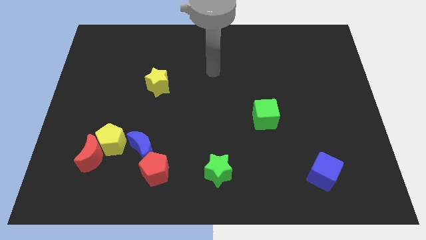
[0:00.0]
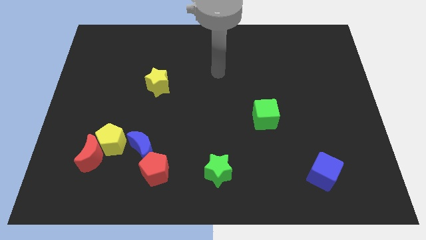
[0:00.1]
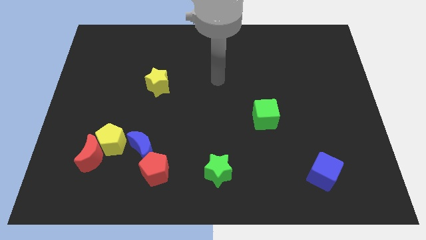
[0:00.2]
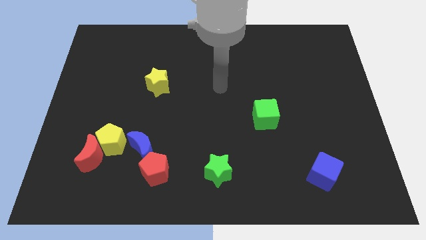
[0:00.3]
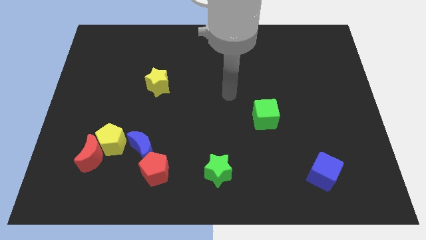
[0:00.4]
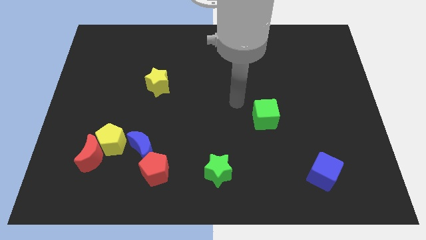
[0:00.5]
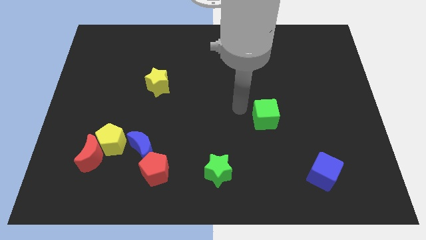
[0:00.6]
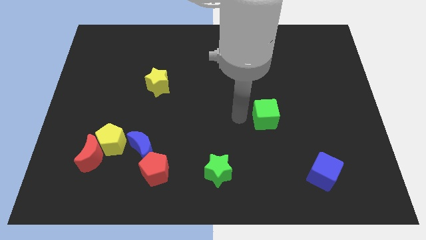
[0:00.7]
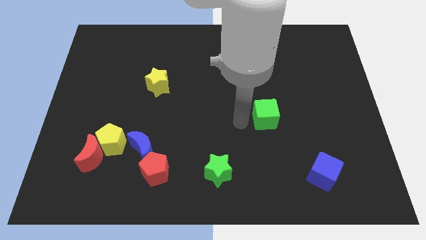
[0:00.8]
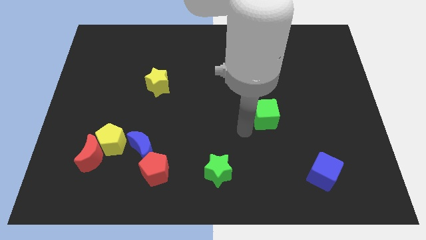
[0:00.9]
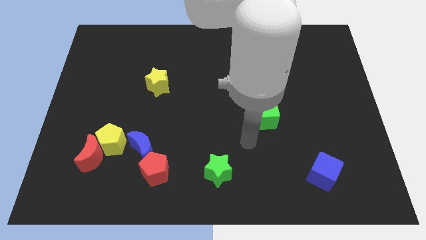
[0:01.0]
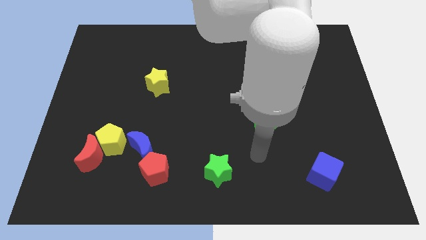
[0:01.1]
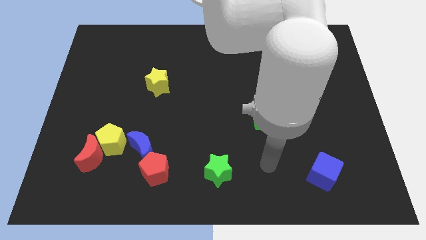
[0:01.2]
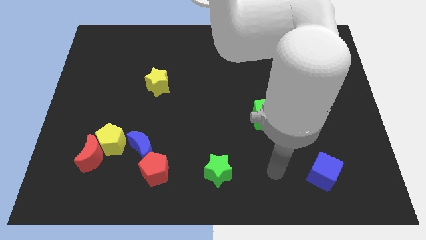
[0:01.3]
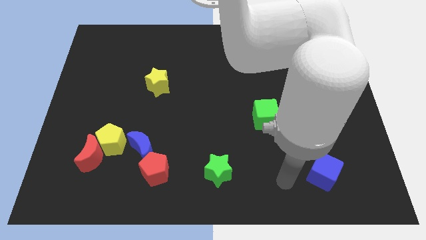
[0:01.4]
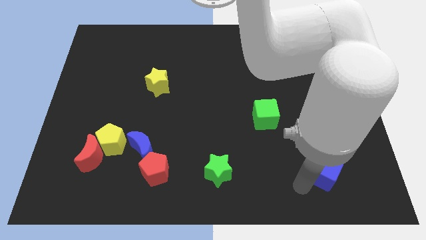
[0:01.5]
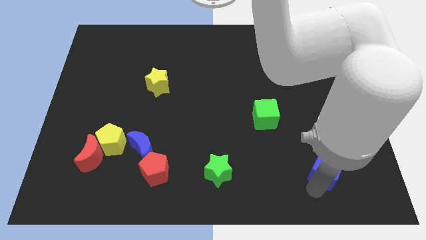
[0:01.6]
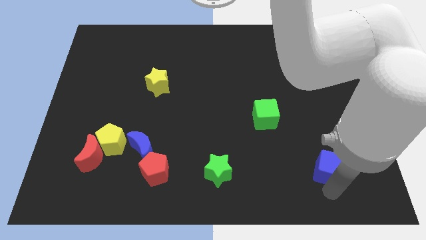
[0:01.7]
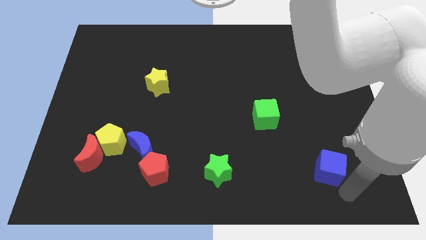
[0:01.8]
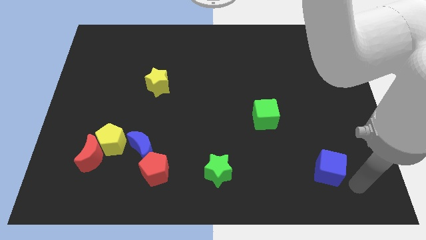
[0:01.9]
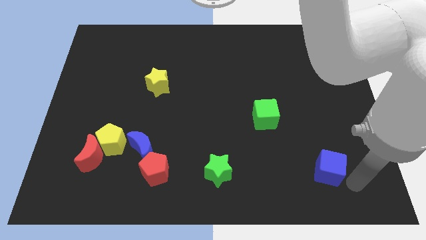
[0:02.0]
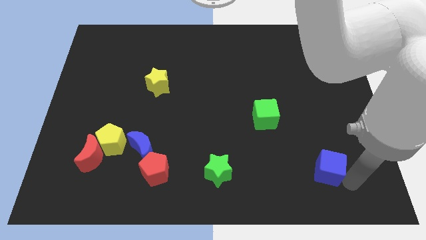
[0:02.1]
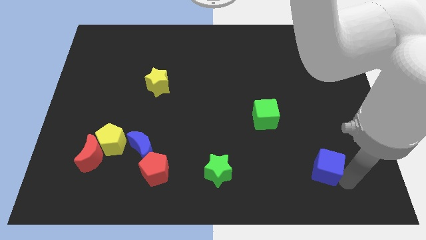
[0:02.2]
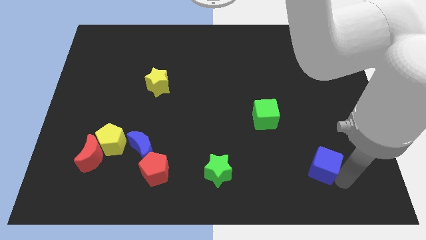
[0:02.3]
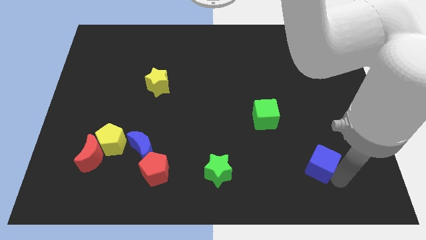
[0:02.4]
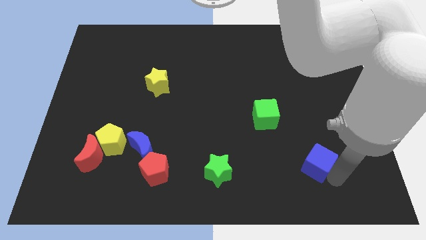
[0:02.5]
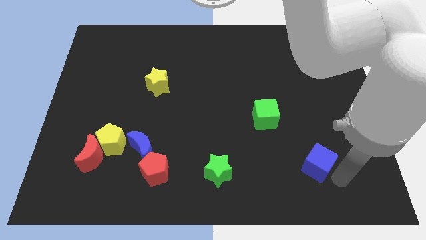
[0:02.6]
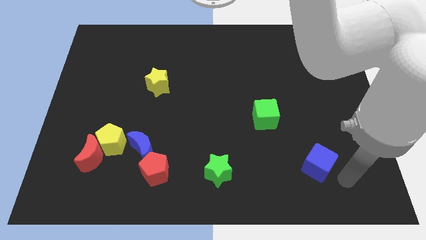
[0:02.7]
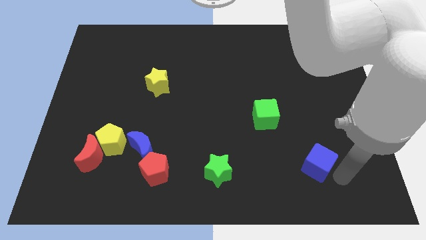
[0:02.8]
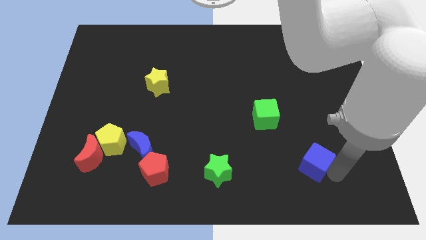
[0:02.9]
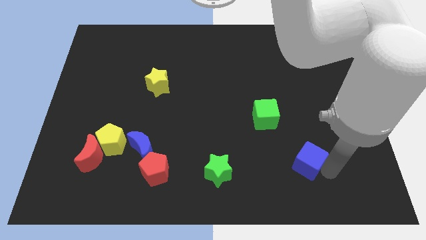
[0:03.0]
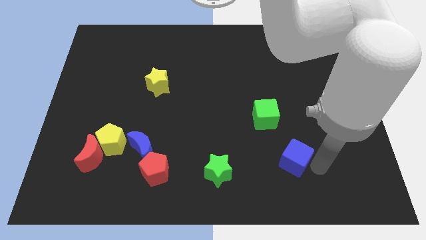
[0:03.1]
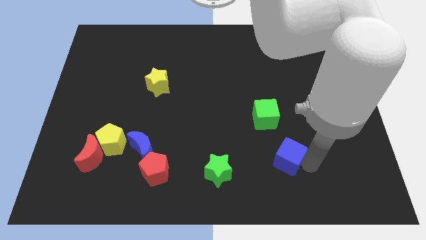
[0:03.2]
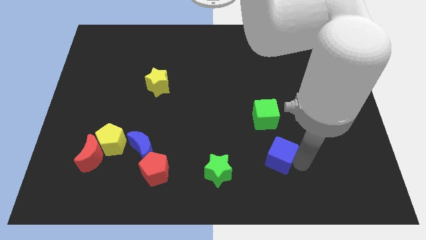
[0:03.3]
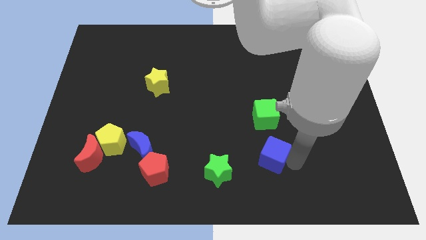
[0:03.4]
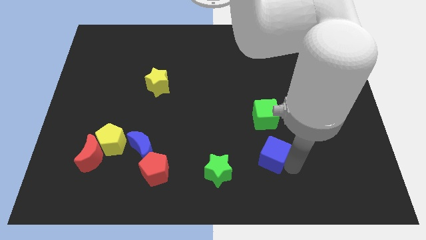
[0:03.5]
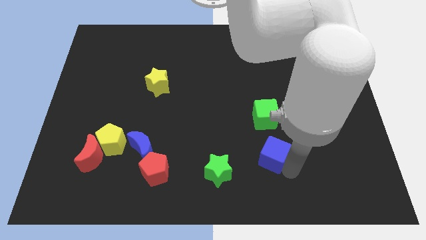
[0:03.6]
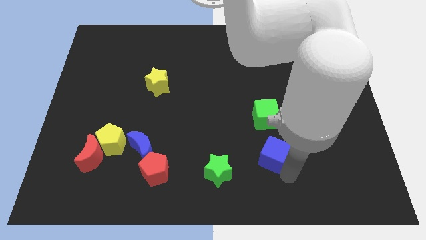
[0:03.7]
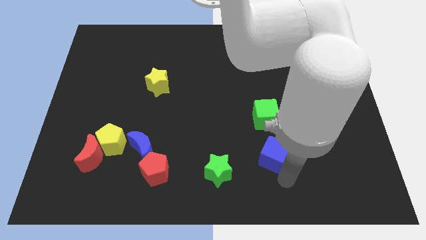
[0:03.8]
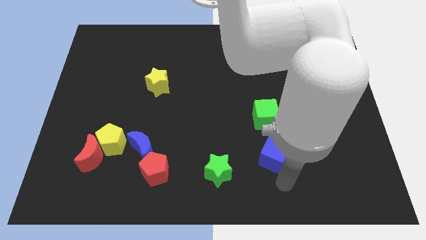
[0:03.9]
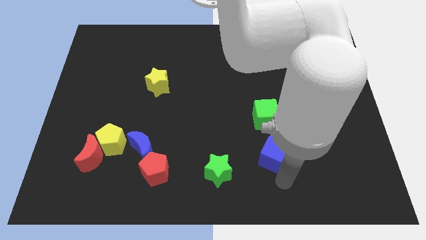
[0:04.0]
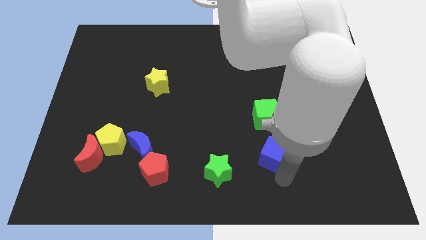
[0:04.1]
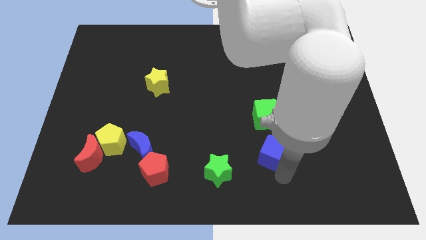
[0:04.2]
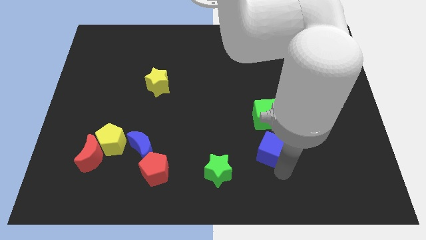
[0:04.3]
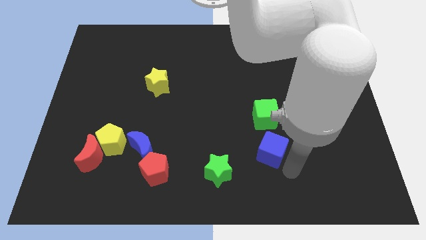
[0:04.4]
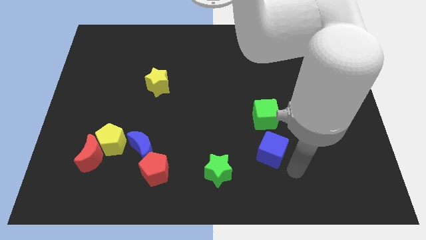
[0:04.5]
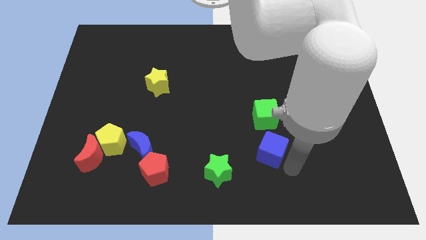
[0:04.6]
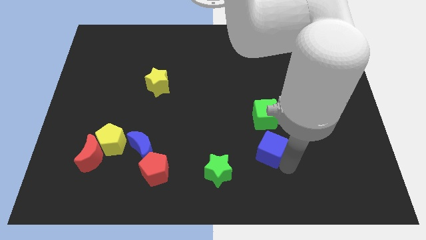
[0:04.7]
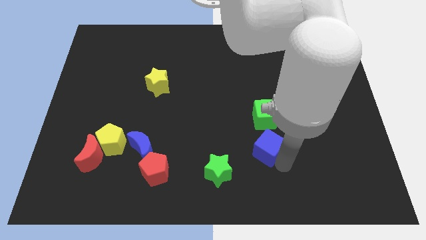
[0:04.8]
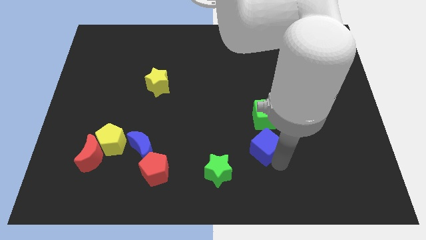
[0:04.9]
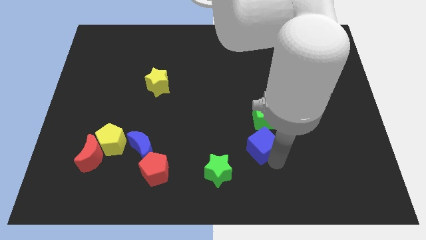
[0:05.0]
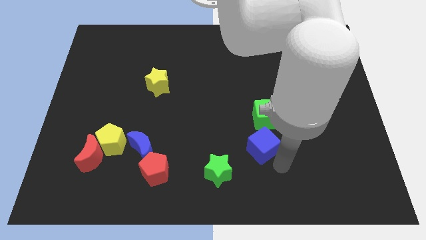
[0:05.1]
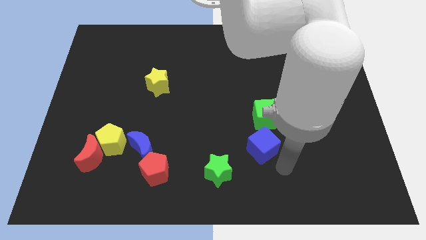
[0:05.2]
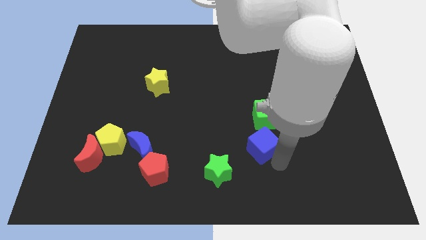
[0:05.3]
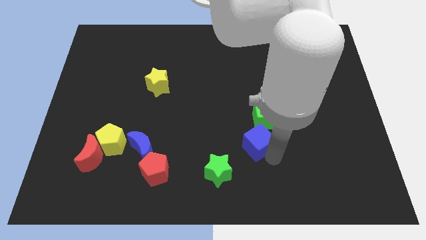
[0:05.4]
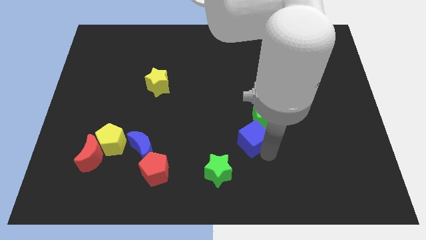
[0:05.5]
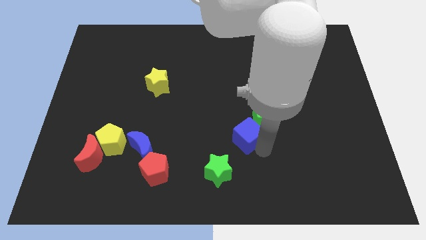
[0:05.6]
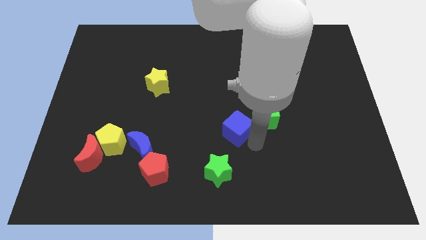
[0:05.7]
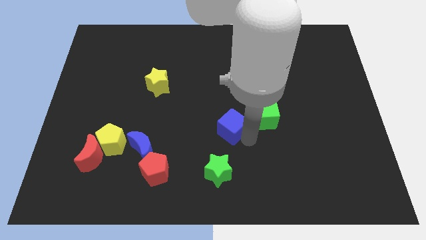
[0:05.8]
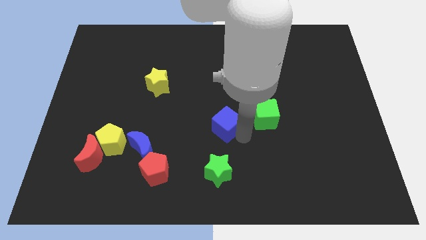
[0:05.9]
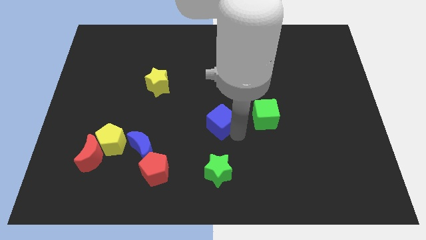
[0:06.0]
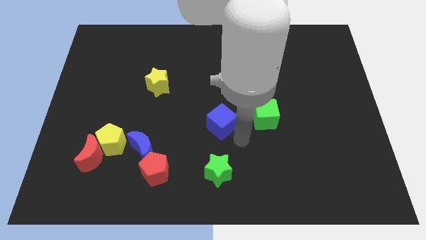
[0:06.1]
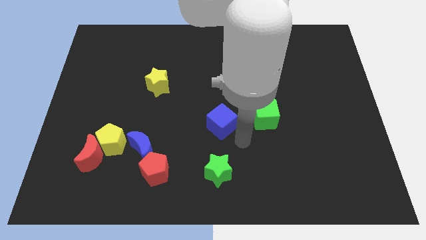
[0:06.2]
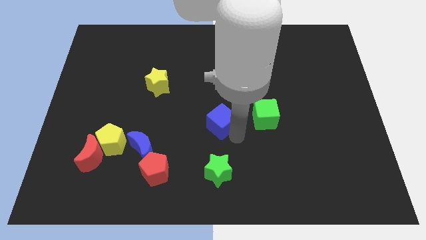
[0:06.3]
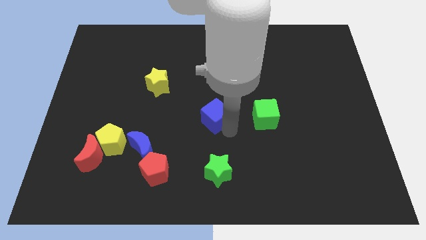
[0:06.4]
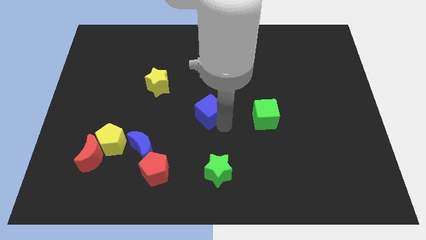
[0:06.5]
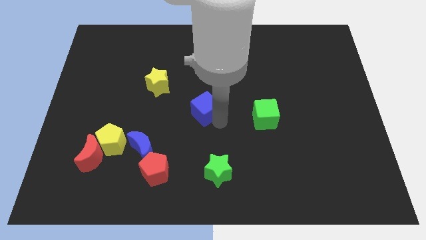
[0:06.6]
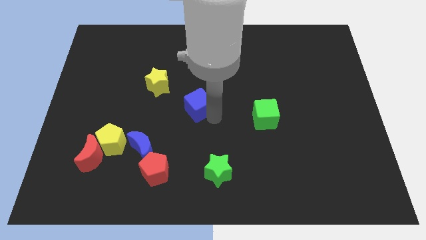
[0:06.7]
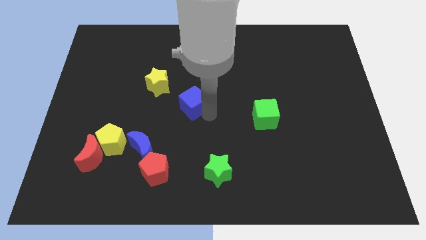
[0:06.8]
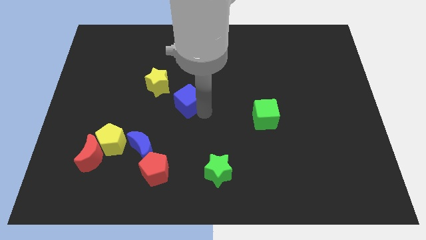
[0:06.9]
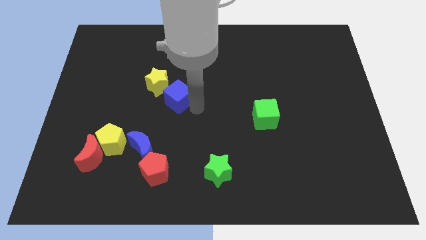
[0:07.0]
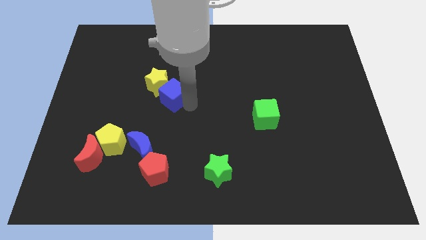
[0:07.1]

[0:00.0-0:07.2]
push the blue cube next to the yellow star
